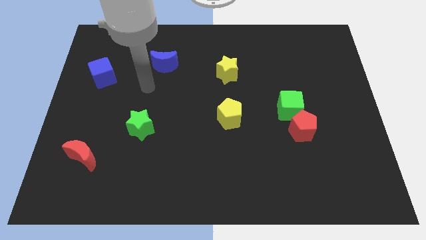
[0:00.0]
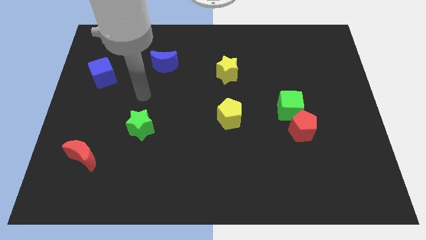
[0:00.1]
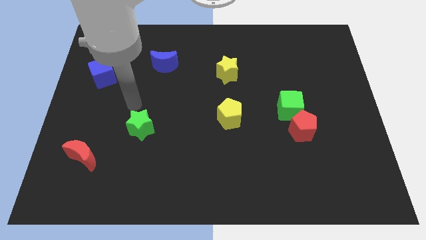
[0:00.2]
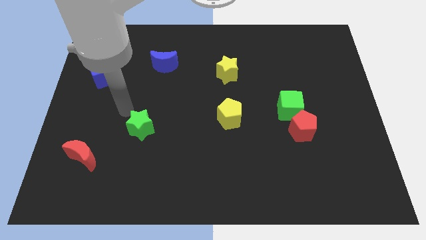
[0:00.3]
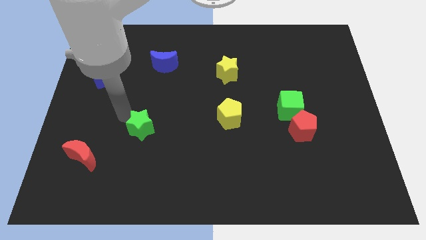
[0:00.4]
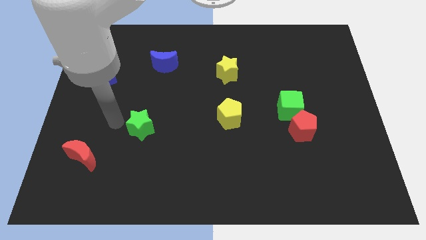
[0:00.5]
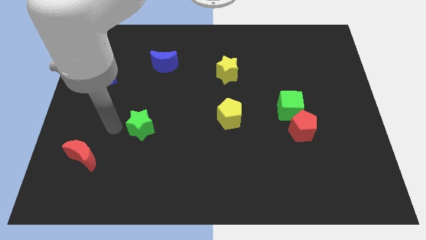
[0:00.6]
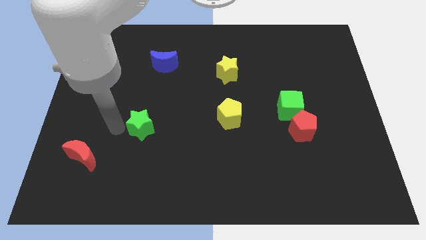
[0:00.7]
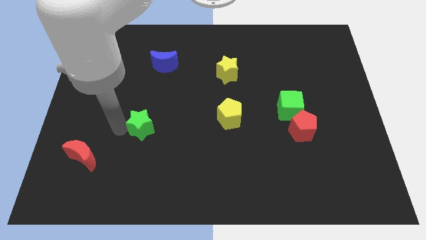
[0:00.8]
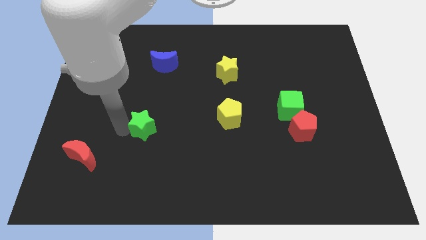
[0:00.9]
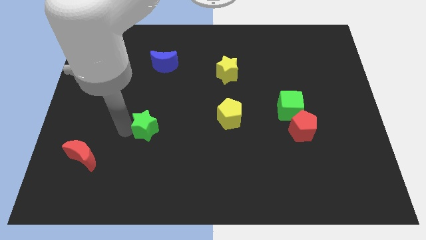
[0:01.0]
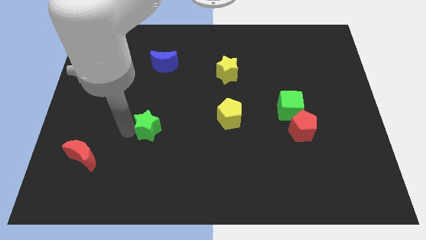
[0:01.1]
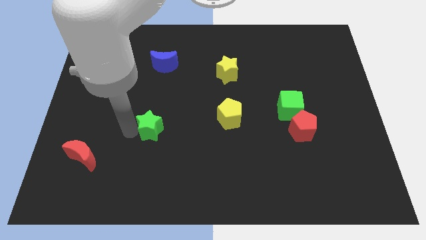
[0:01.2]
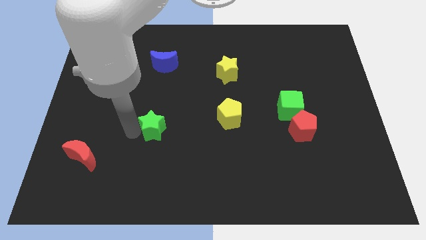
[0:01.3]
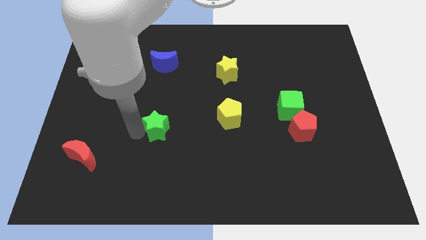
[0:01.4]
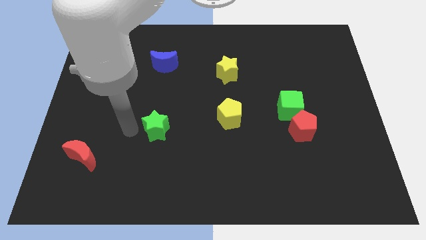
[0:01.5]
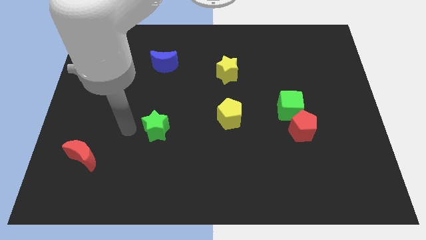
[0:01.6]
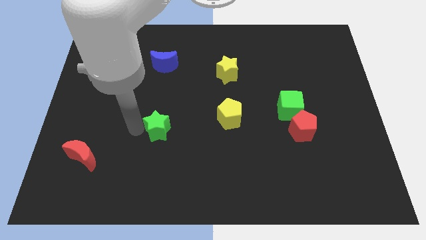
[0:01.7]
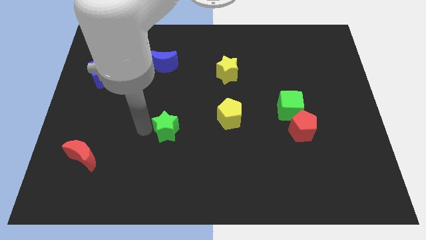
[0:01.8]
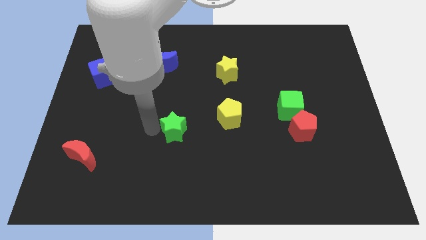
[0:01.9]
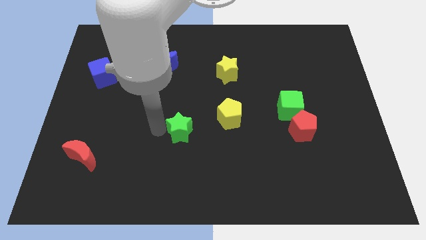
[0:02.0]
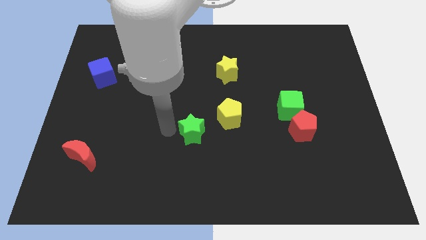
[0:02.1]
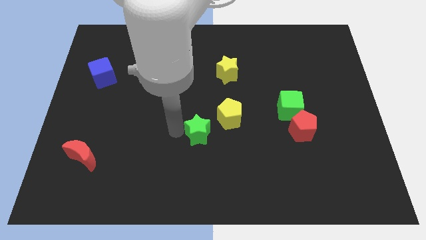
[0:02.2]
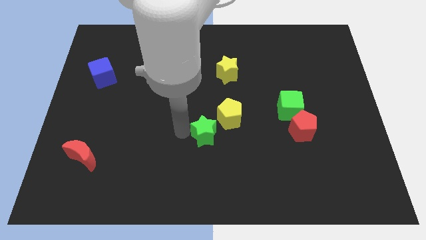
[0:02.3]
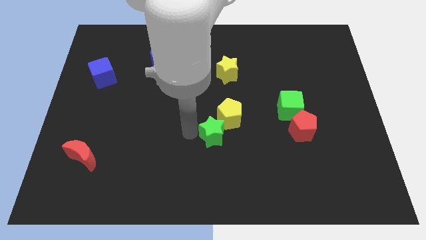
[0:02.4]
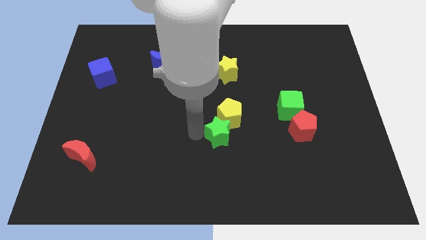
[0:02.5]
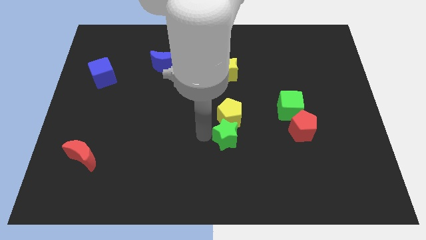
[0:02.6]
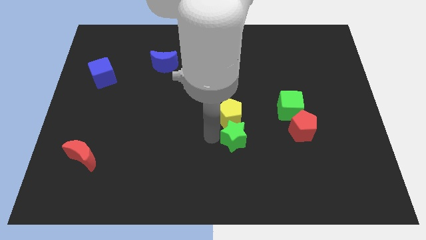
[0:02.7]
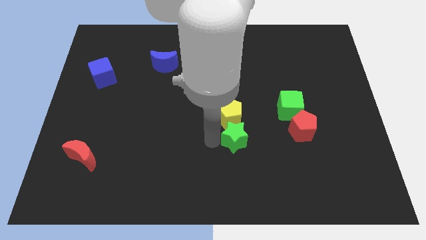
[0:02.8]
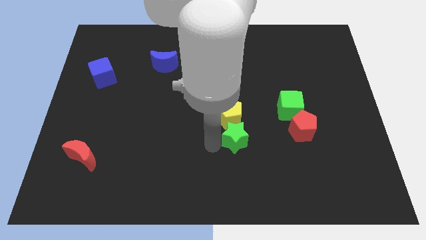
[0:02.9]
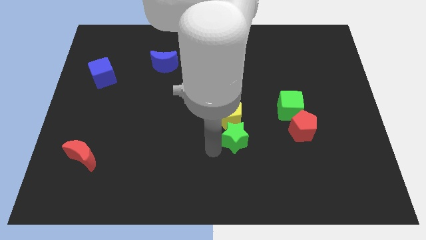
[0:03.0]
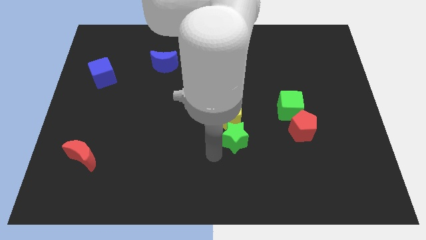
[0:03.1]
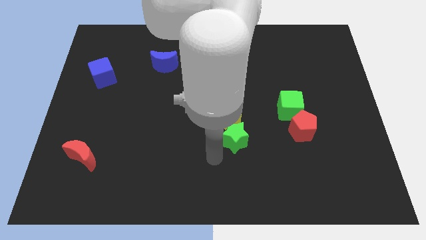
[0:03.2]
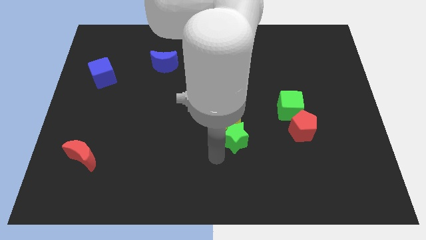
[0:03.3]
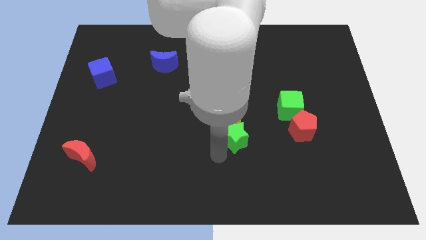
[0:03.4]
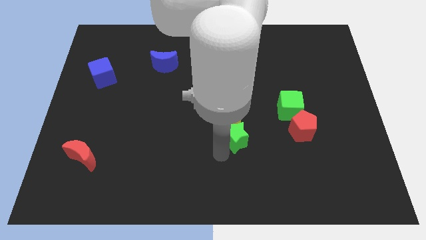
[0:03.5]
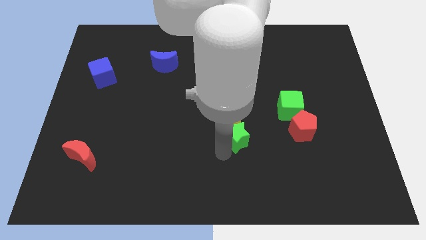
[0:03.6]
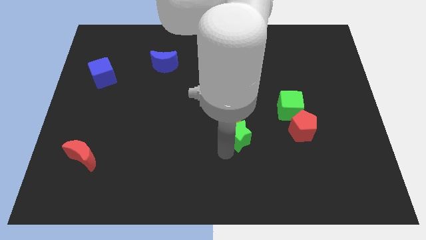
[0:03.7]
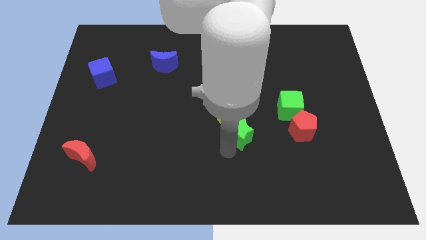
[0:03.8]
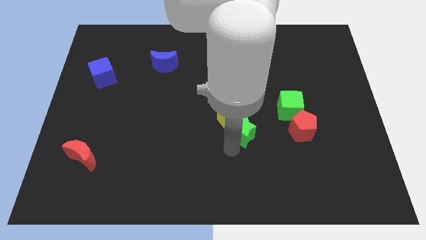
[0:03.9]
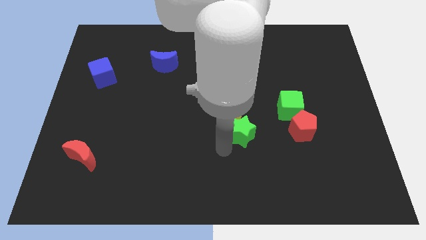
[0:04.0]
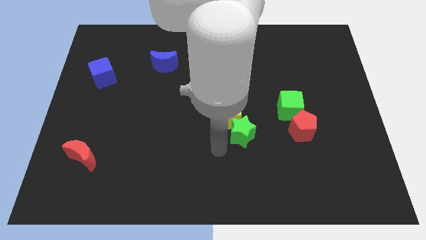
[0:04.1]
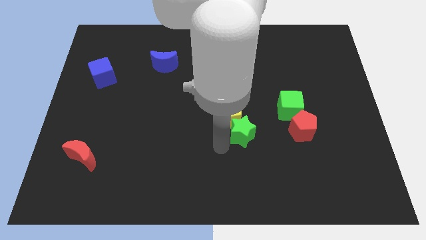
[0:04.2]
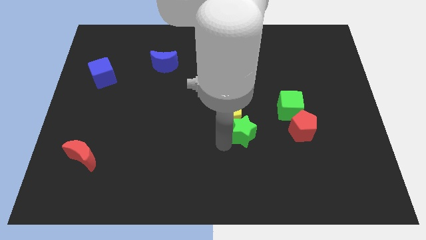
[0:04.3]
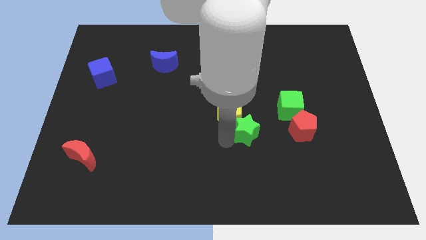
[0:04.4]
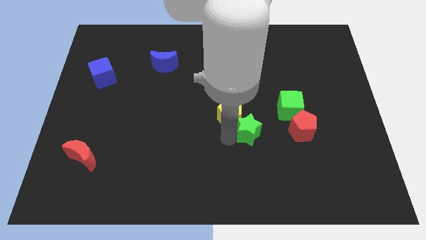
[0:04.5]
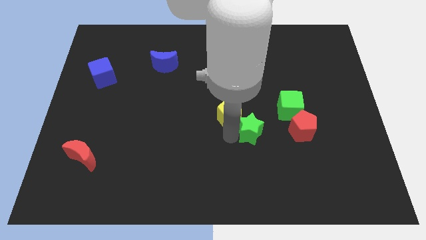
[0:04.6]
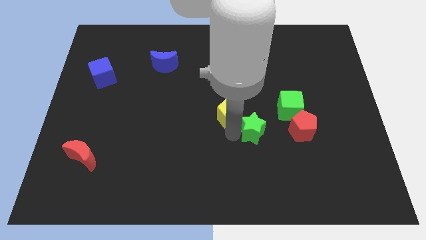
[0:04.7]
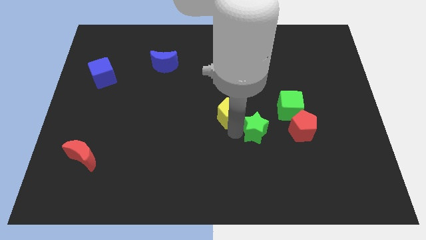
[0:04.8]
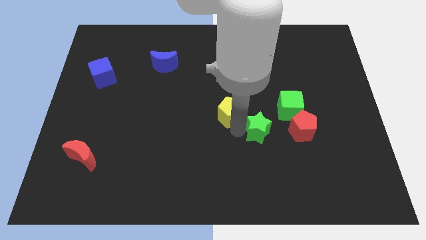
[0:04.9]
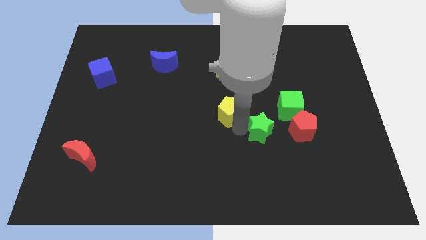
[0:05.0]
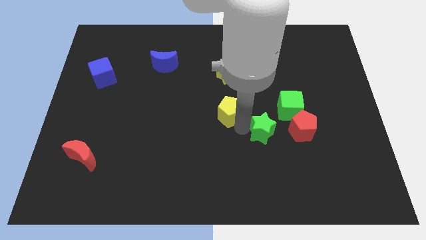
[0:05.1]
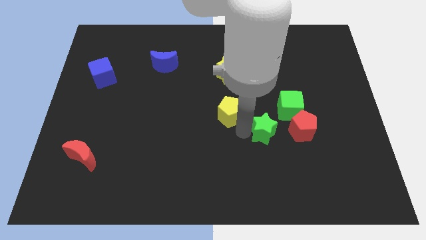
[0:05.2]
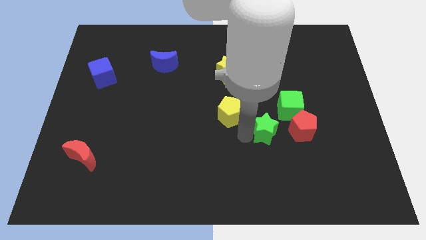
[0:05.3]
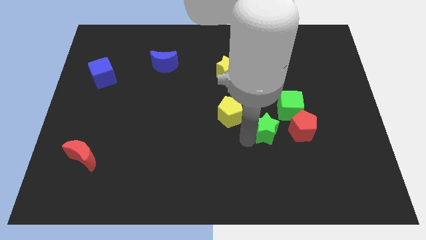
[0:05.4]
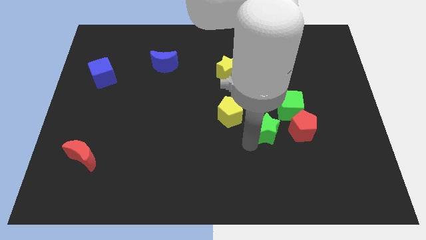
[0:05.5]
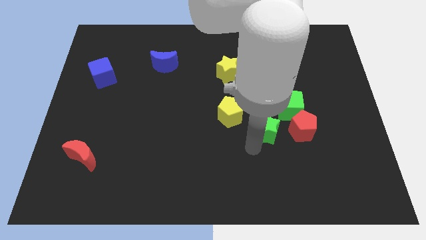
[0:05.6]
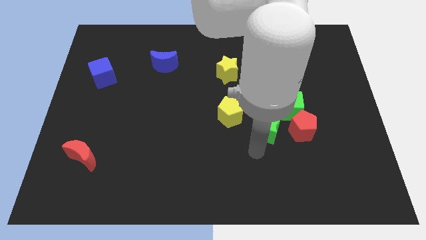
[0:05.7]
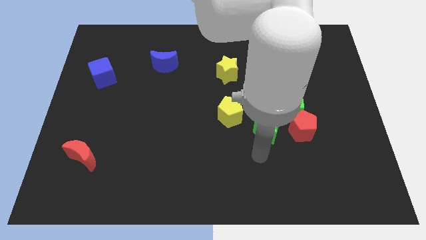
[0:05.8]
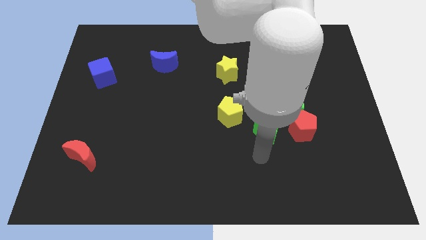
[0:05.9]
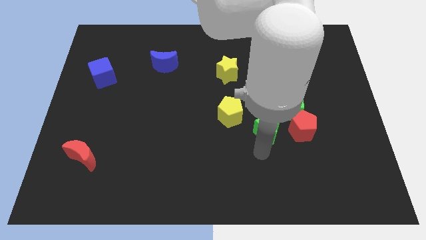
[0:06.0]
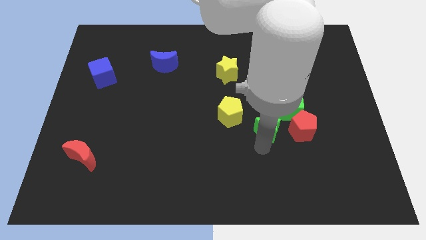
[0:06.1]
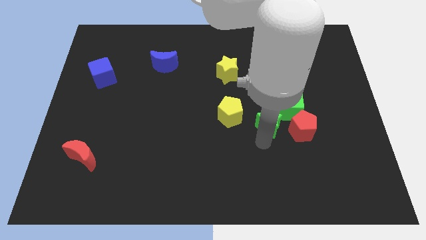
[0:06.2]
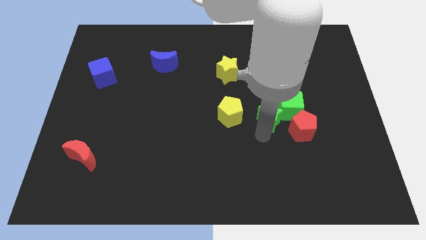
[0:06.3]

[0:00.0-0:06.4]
move the green star close to the green cube

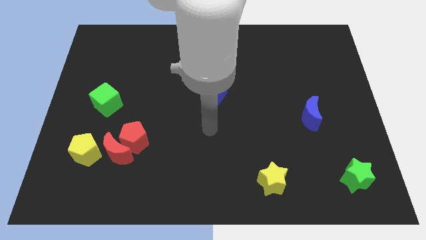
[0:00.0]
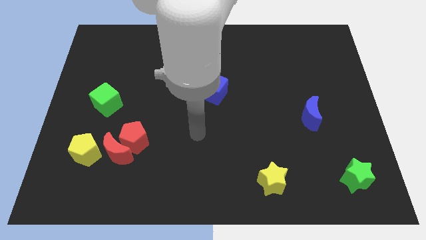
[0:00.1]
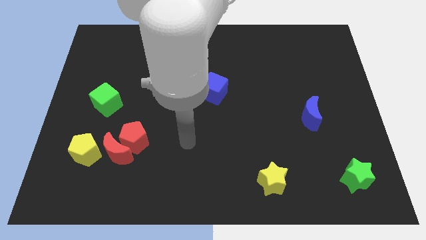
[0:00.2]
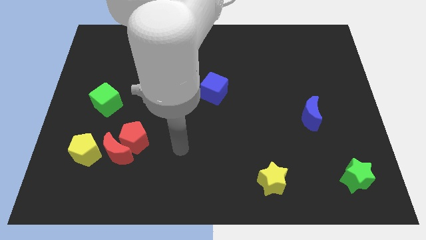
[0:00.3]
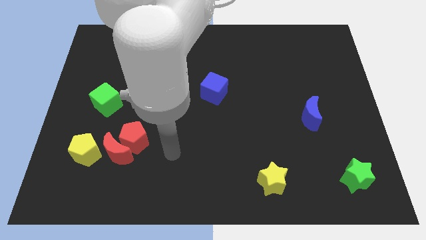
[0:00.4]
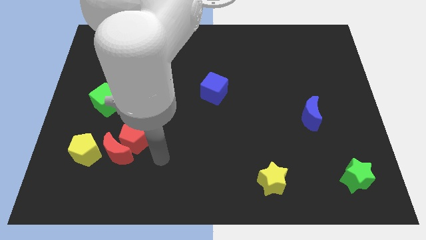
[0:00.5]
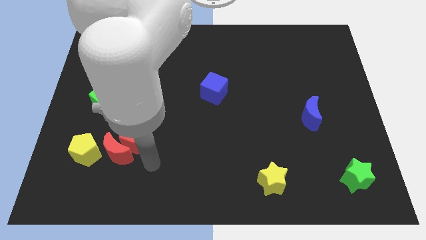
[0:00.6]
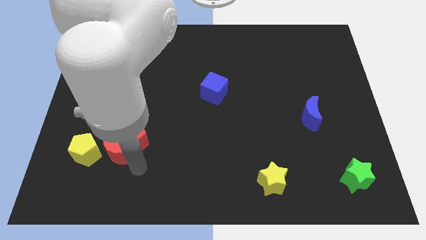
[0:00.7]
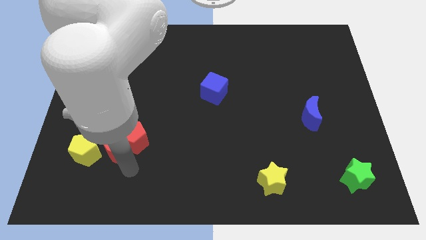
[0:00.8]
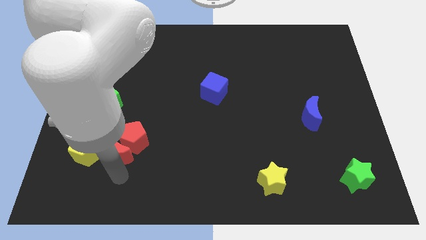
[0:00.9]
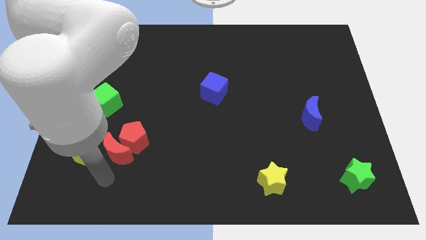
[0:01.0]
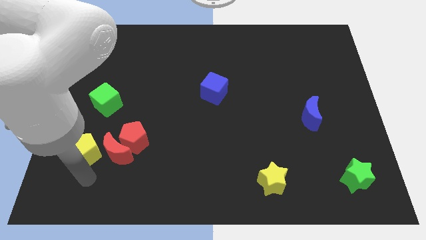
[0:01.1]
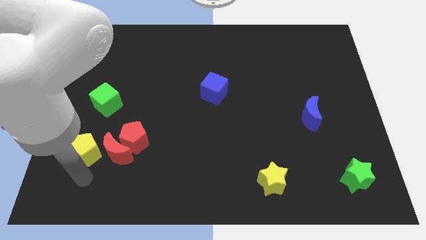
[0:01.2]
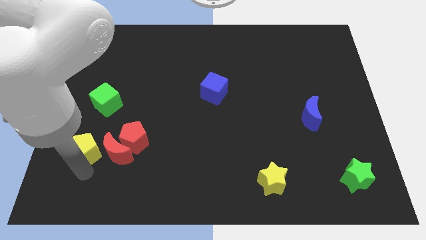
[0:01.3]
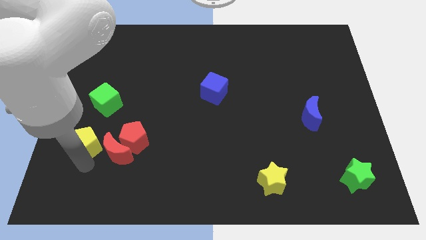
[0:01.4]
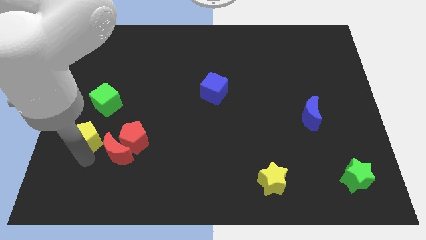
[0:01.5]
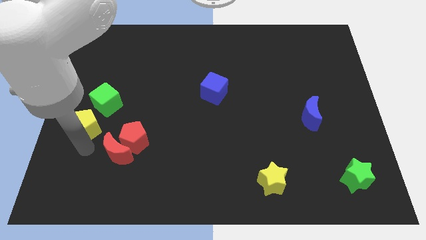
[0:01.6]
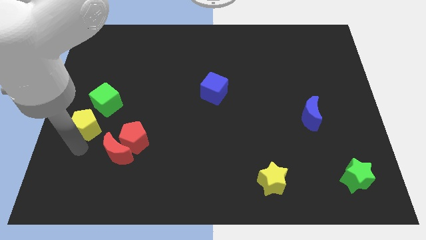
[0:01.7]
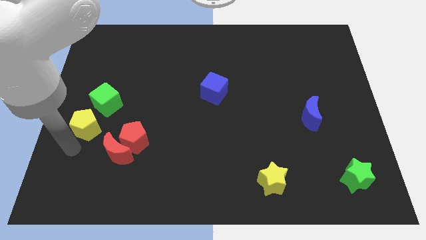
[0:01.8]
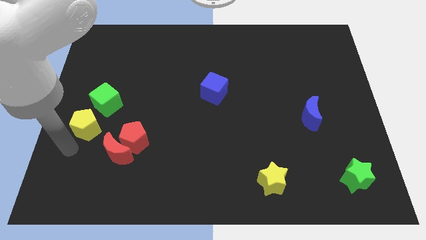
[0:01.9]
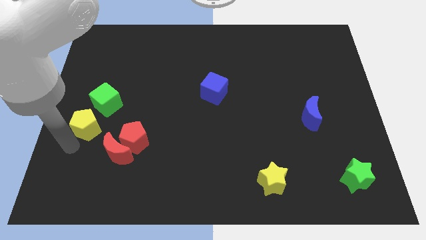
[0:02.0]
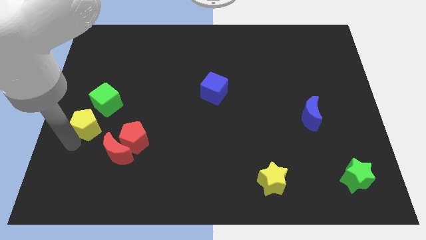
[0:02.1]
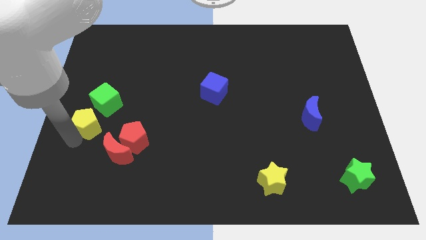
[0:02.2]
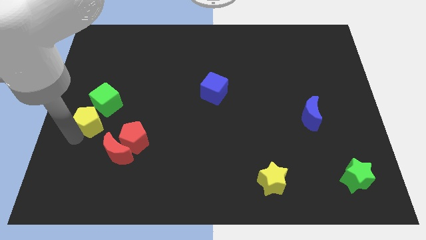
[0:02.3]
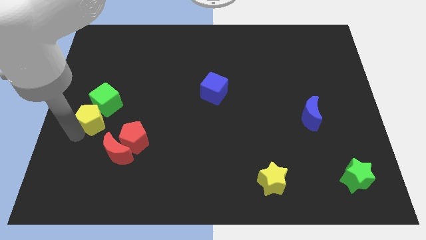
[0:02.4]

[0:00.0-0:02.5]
put the yellow pentagon to the green cube
